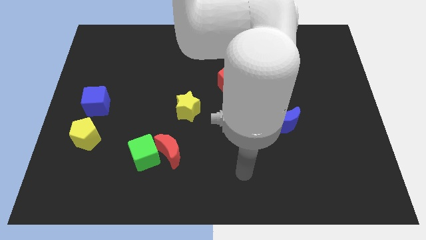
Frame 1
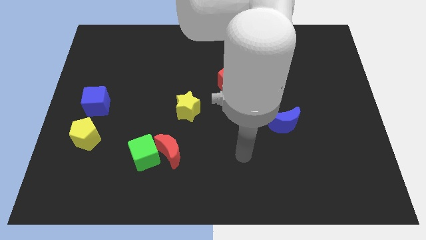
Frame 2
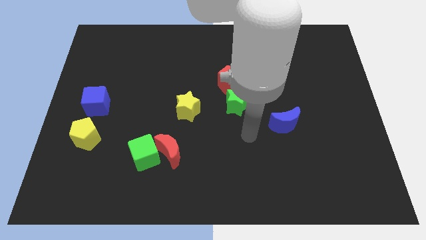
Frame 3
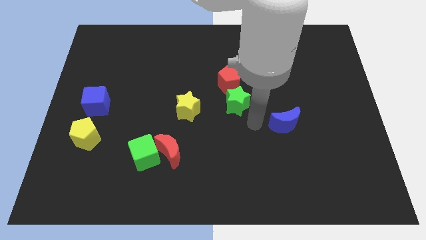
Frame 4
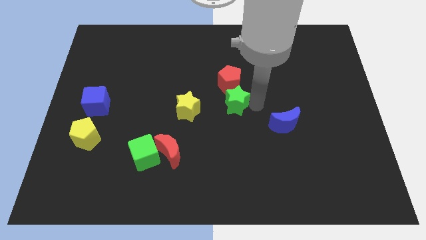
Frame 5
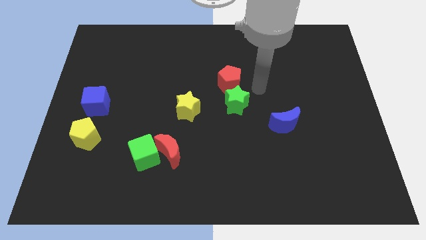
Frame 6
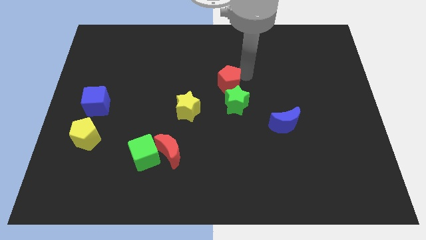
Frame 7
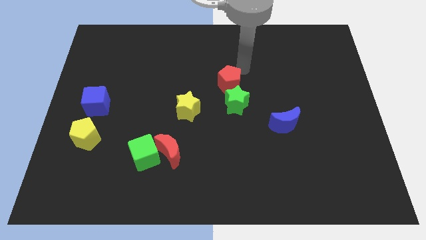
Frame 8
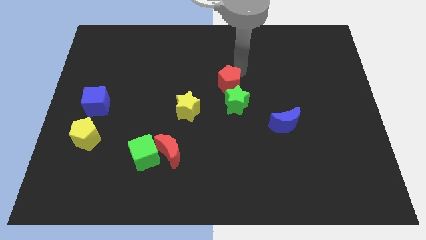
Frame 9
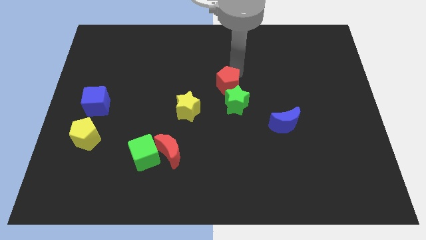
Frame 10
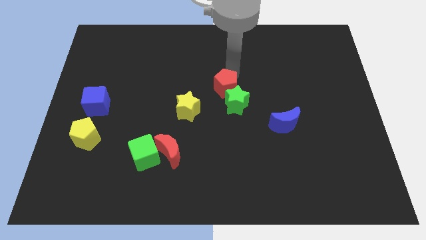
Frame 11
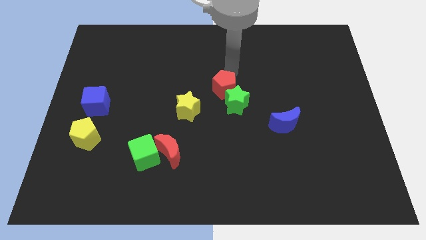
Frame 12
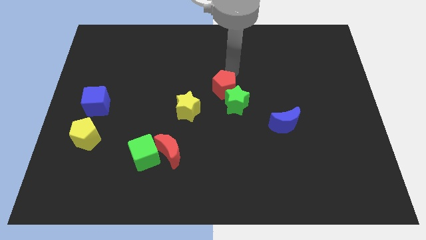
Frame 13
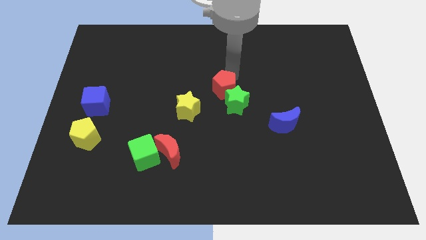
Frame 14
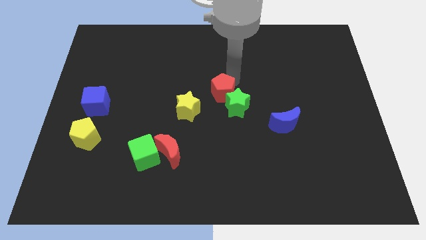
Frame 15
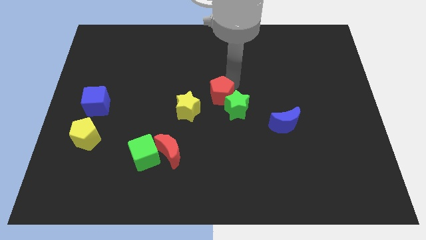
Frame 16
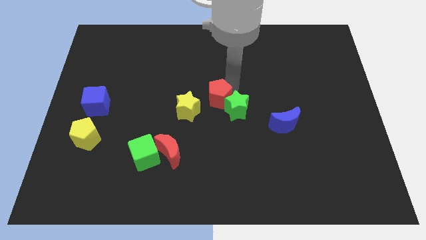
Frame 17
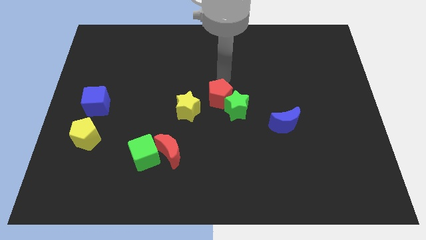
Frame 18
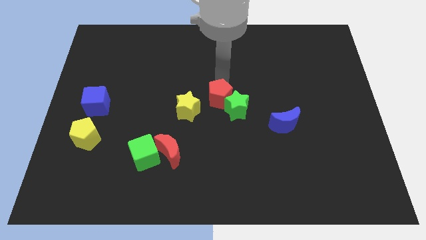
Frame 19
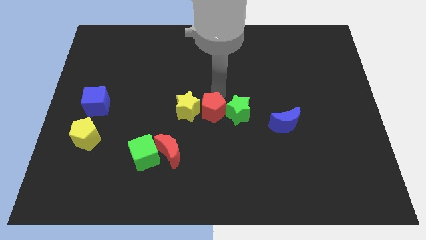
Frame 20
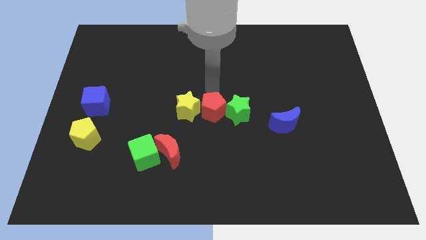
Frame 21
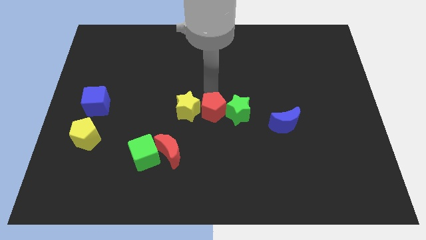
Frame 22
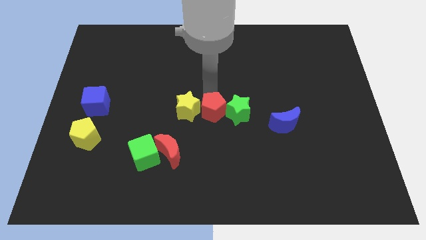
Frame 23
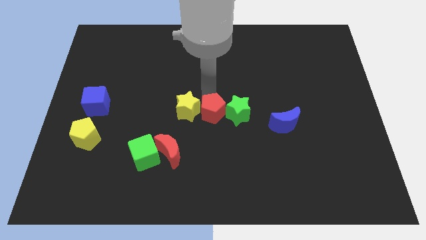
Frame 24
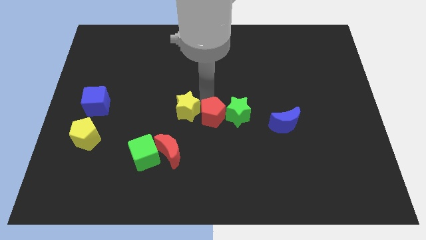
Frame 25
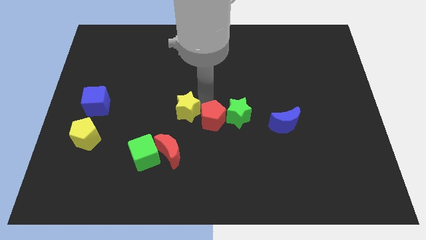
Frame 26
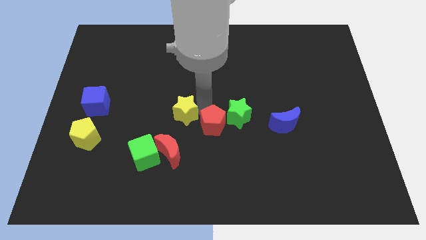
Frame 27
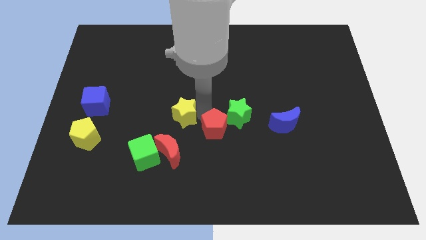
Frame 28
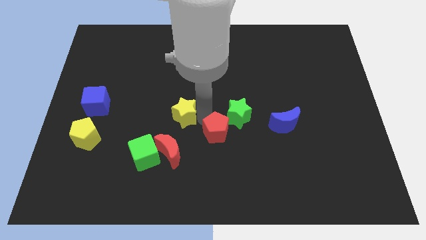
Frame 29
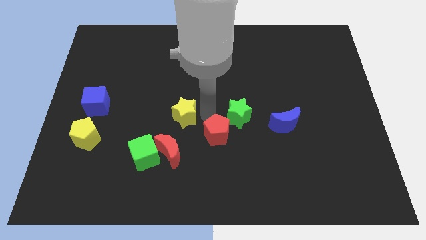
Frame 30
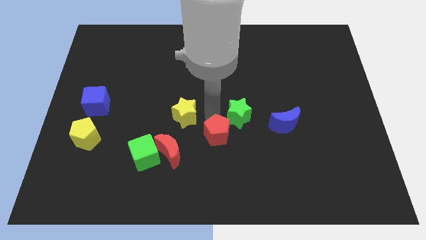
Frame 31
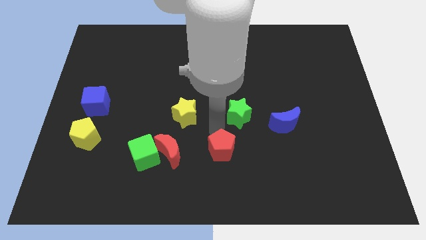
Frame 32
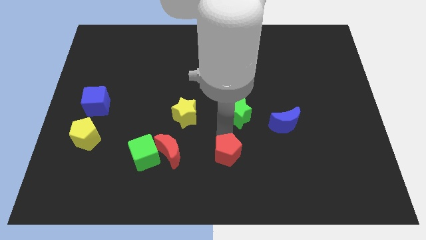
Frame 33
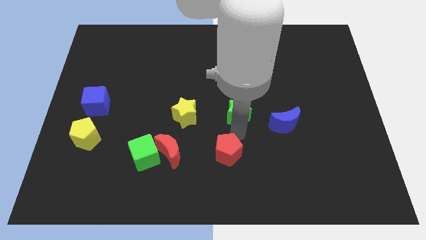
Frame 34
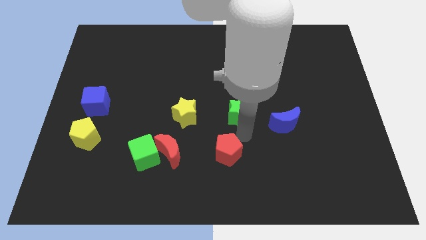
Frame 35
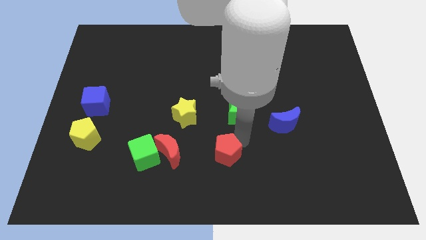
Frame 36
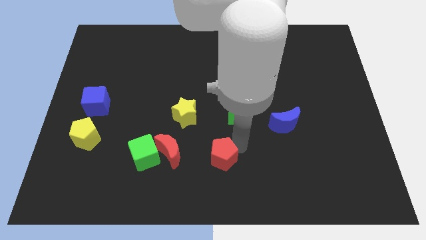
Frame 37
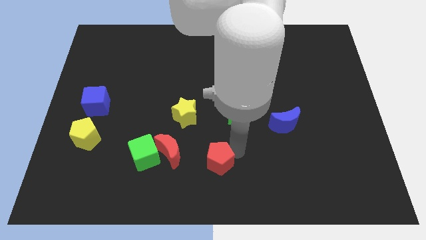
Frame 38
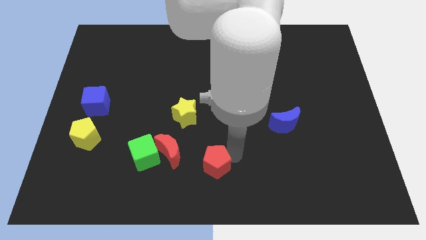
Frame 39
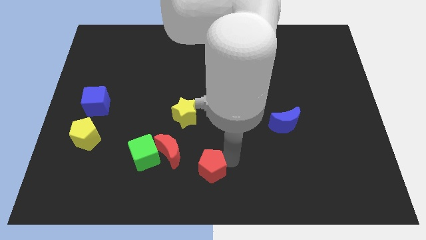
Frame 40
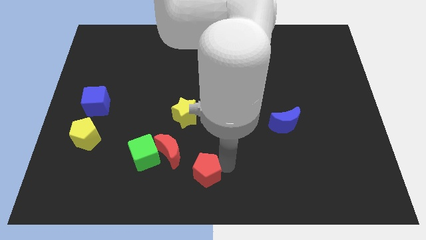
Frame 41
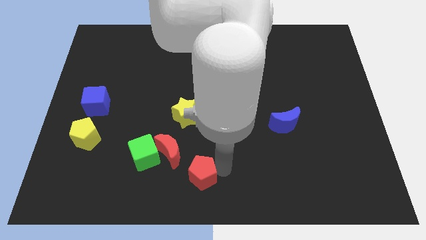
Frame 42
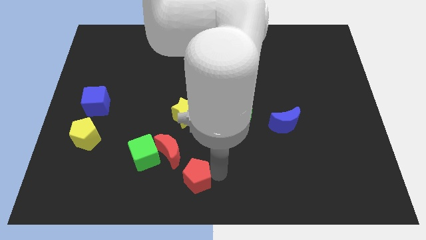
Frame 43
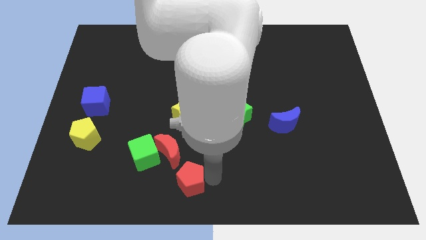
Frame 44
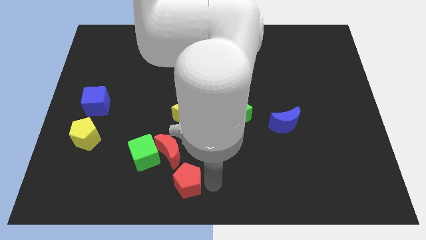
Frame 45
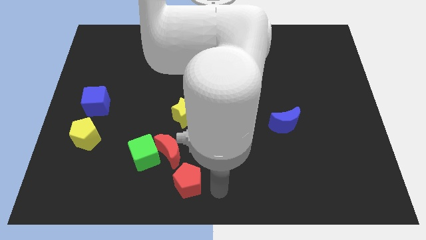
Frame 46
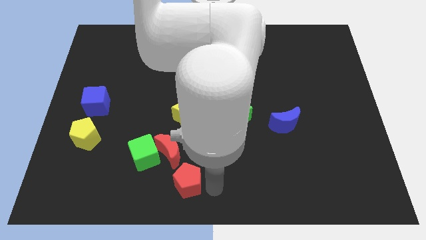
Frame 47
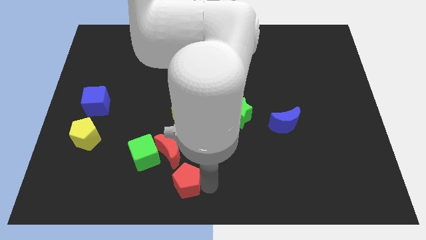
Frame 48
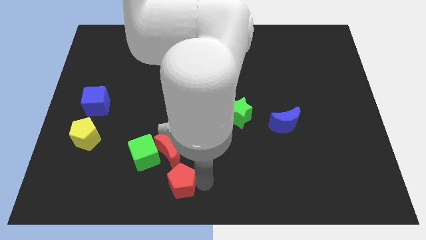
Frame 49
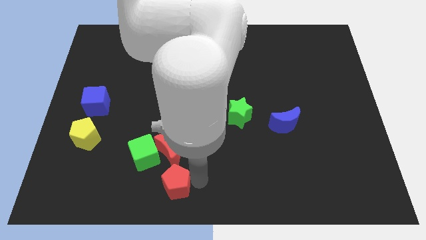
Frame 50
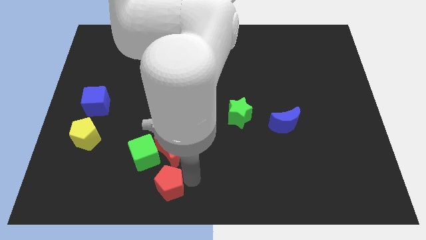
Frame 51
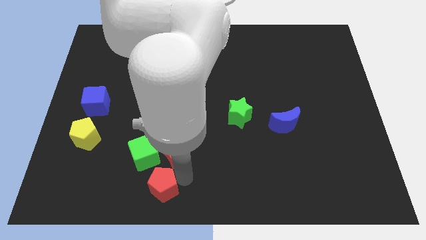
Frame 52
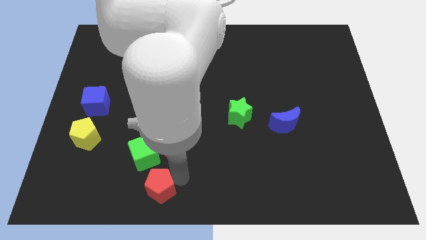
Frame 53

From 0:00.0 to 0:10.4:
put the red pentagon to the bottom left of the red moon

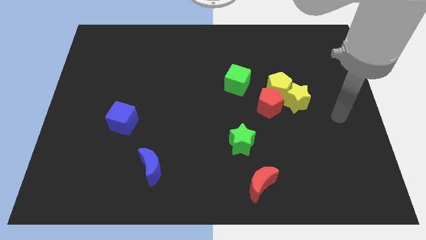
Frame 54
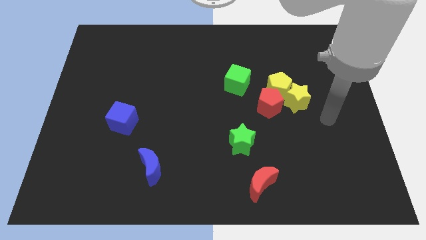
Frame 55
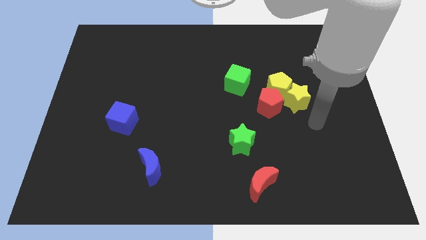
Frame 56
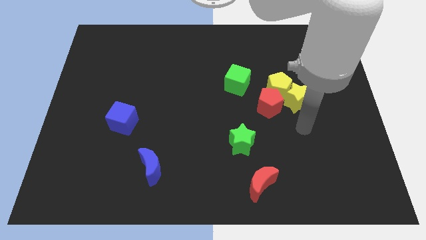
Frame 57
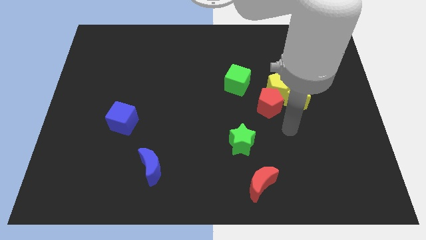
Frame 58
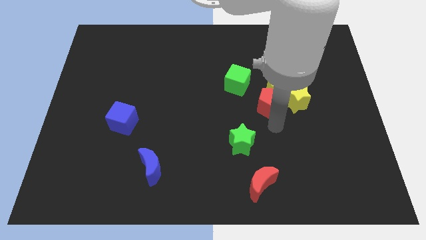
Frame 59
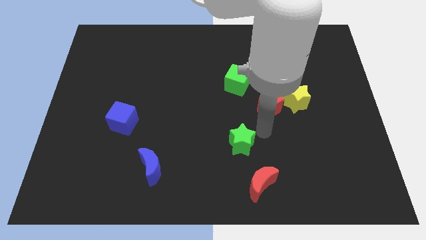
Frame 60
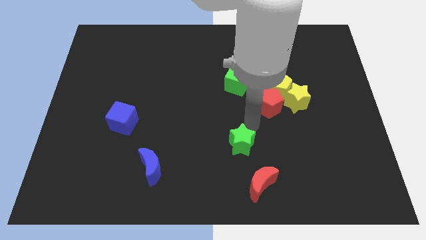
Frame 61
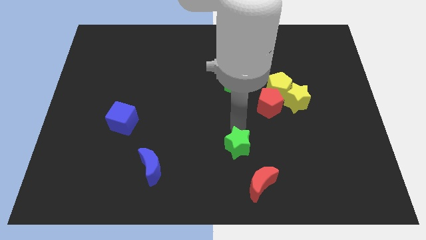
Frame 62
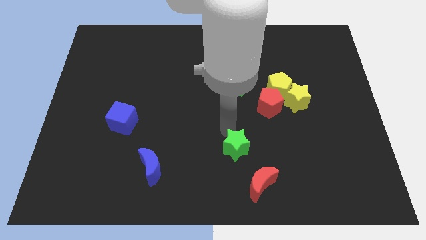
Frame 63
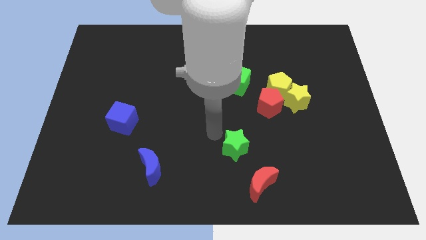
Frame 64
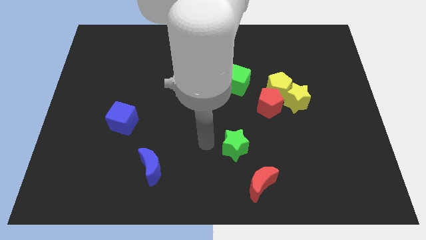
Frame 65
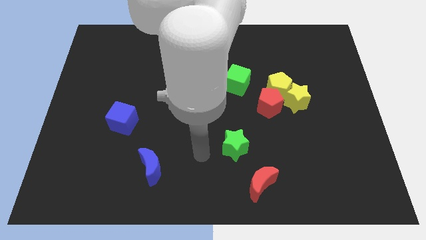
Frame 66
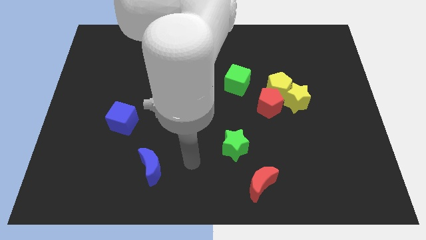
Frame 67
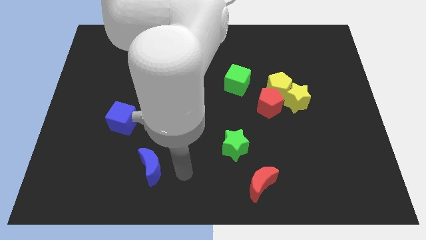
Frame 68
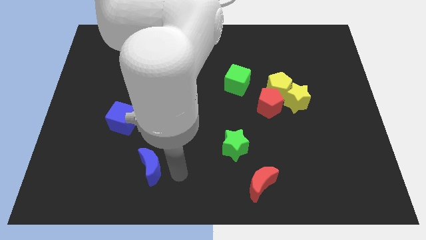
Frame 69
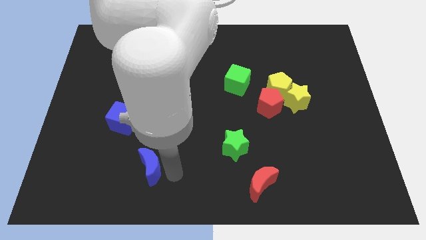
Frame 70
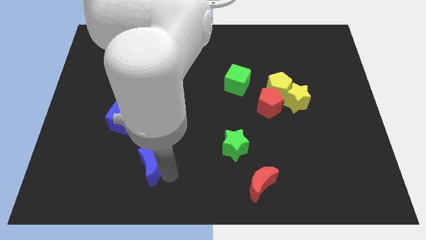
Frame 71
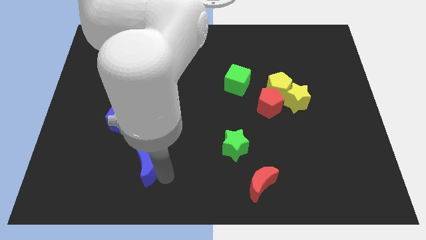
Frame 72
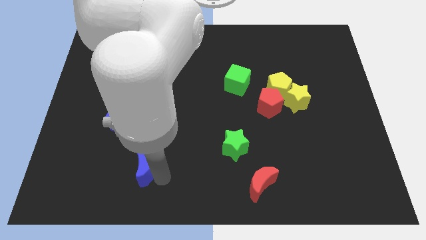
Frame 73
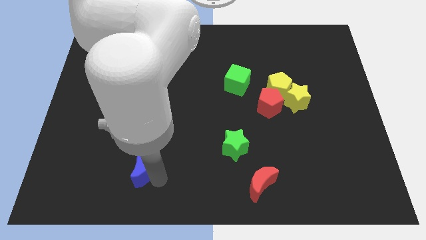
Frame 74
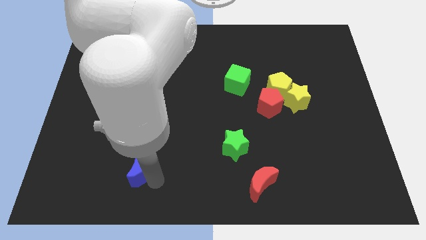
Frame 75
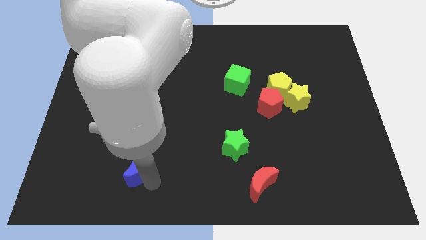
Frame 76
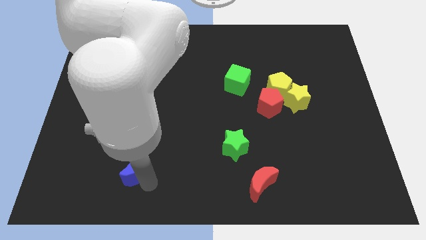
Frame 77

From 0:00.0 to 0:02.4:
slide the blue moon to the bottom of the blue cube

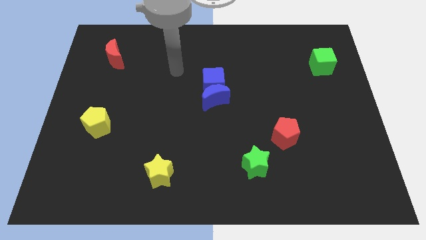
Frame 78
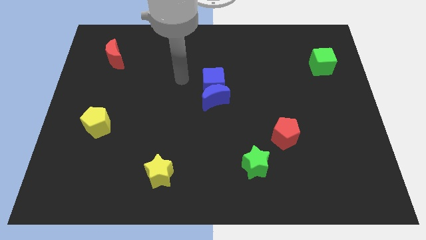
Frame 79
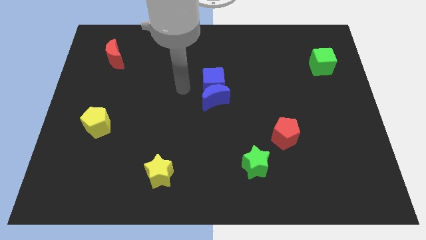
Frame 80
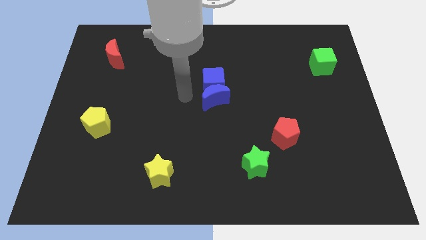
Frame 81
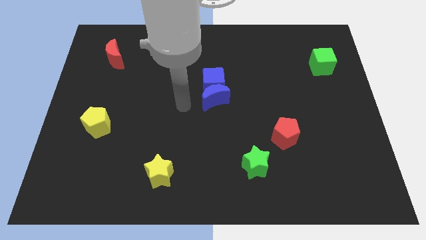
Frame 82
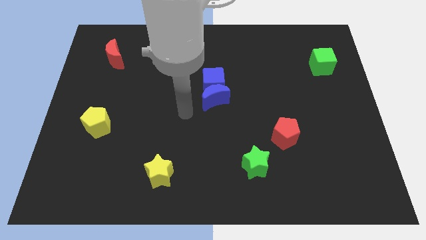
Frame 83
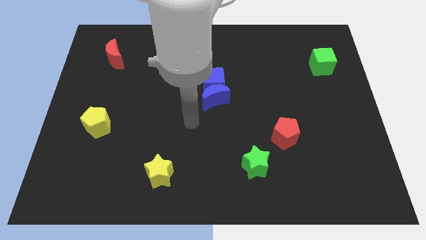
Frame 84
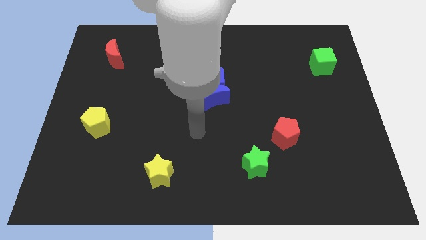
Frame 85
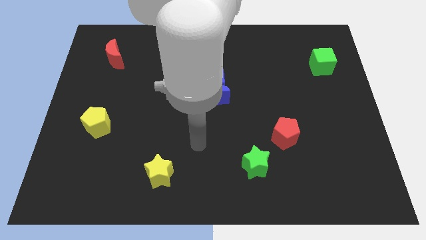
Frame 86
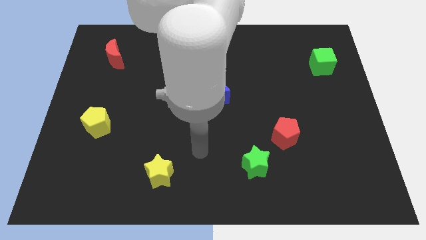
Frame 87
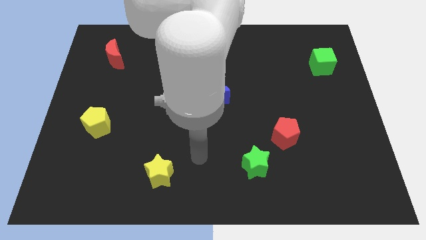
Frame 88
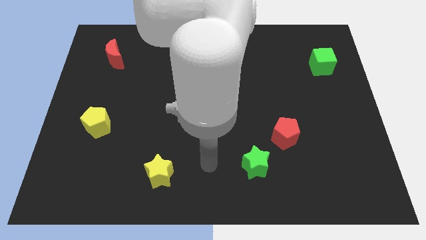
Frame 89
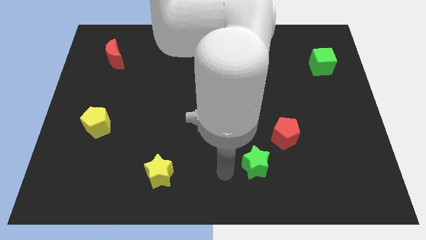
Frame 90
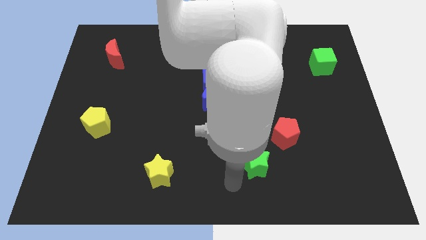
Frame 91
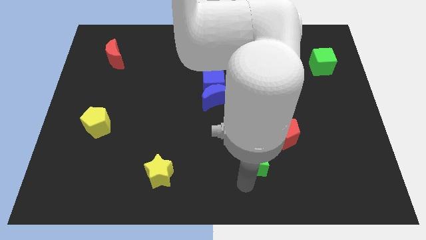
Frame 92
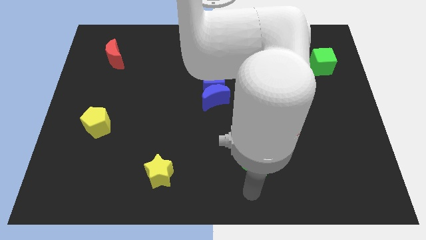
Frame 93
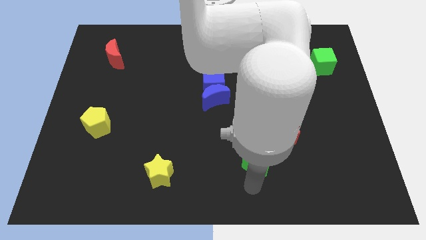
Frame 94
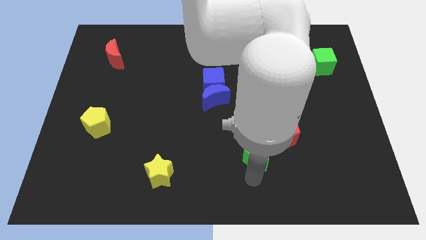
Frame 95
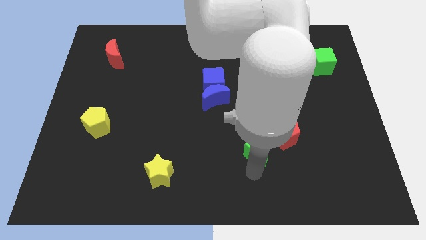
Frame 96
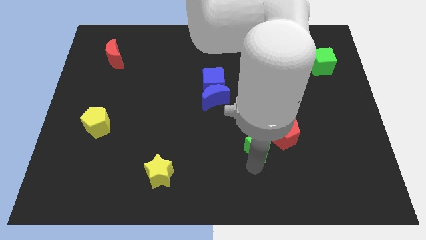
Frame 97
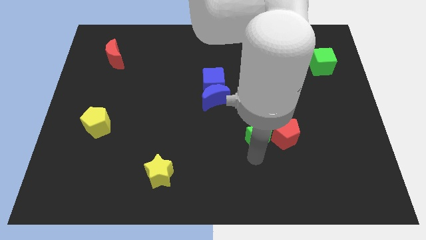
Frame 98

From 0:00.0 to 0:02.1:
push the green star diagonally up and to the left of the red pentagon
